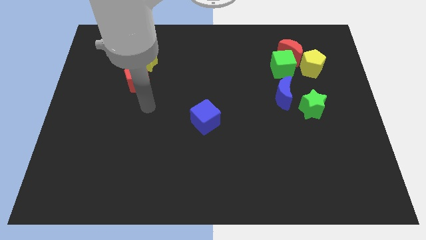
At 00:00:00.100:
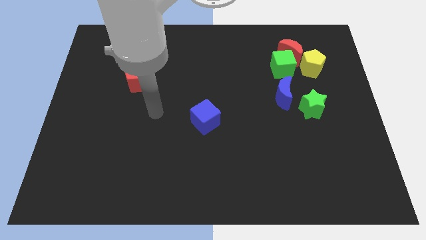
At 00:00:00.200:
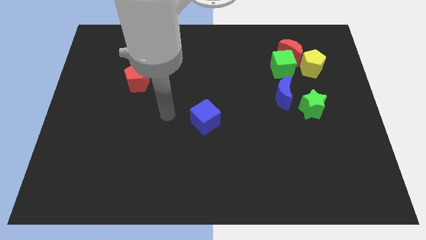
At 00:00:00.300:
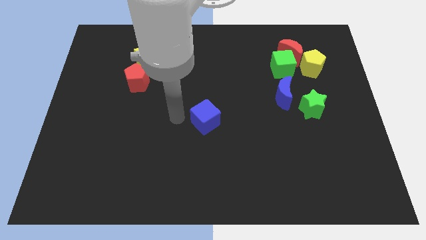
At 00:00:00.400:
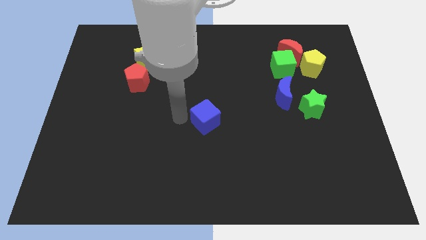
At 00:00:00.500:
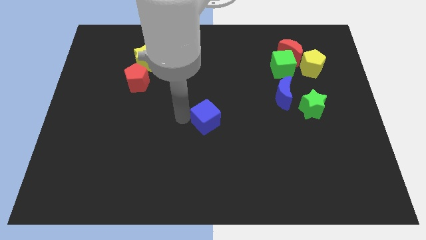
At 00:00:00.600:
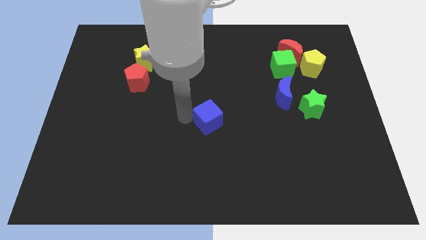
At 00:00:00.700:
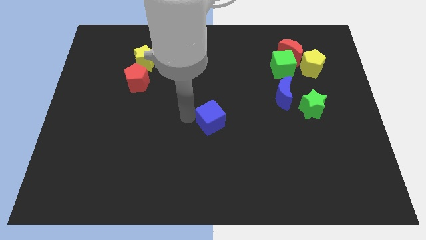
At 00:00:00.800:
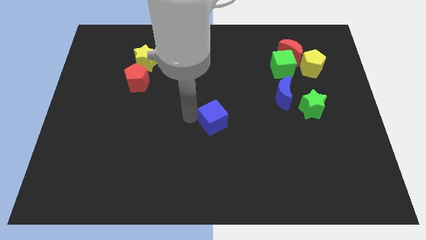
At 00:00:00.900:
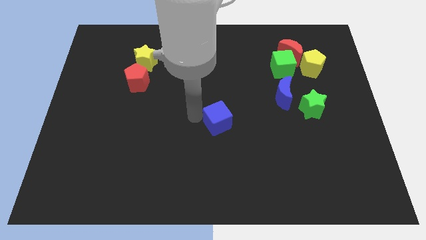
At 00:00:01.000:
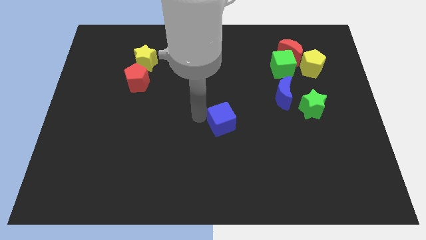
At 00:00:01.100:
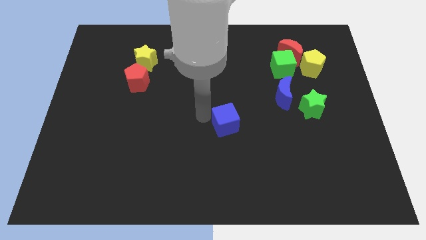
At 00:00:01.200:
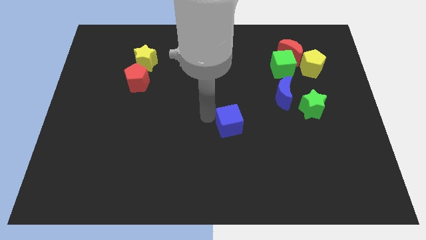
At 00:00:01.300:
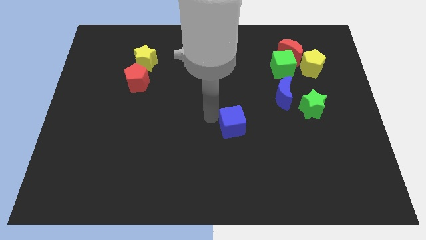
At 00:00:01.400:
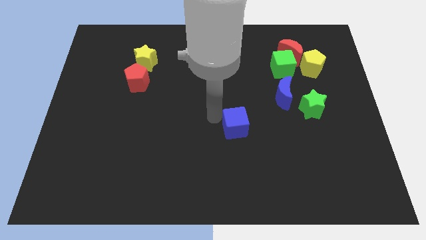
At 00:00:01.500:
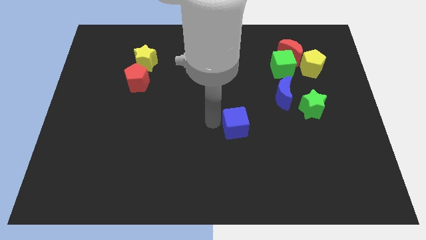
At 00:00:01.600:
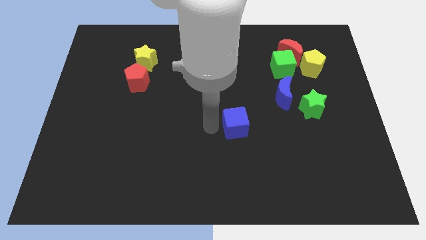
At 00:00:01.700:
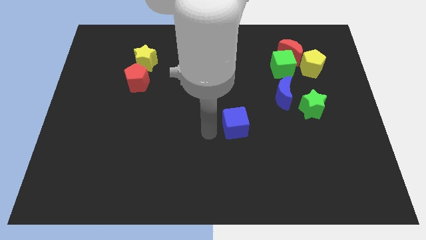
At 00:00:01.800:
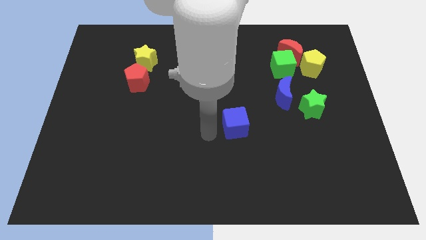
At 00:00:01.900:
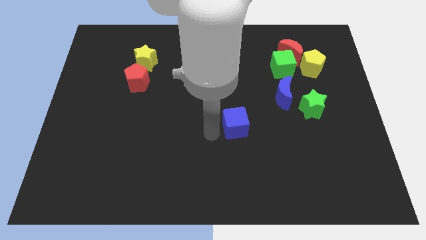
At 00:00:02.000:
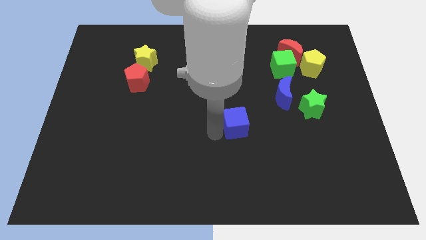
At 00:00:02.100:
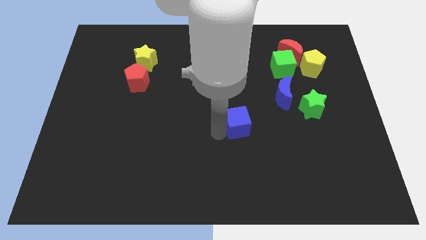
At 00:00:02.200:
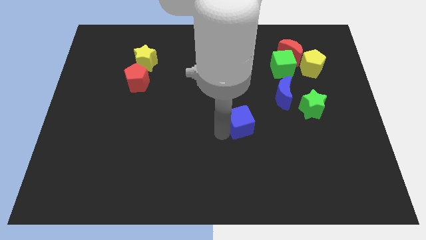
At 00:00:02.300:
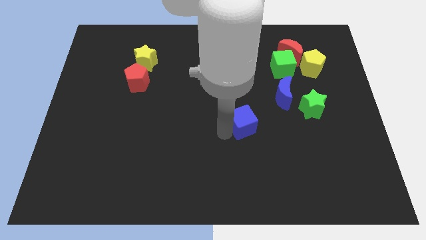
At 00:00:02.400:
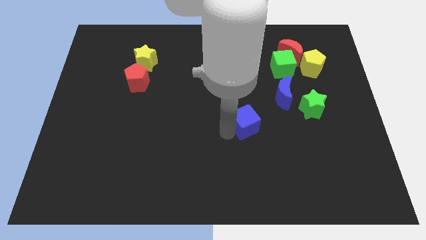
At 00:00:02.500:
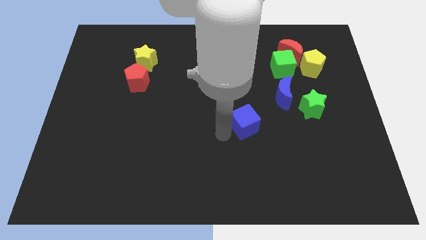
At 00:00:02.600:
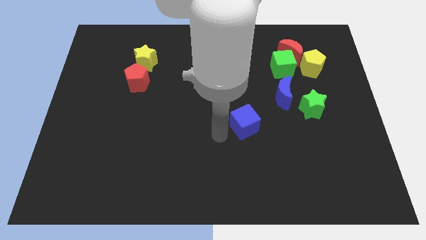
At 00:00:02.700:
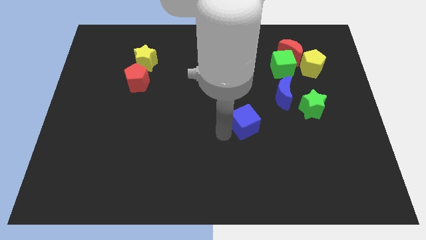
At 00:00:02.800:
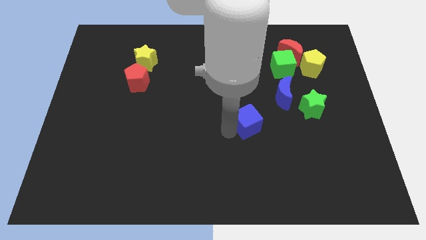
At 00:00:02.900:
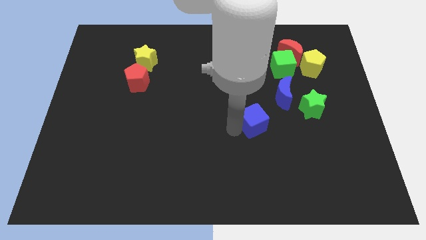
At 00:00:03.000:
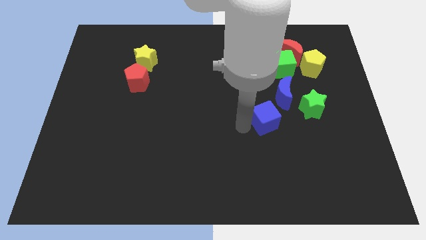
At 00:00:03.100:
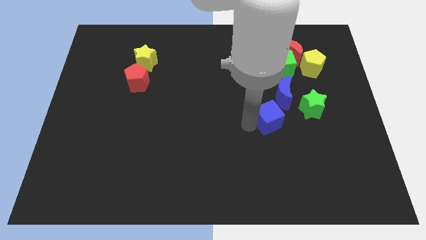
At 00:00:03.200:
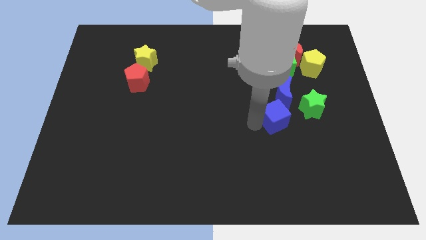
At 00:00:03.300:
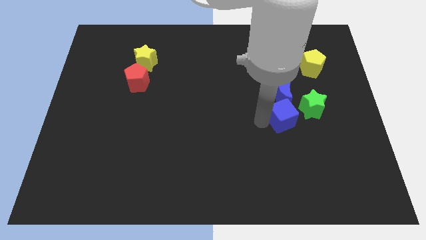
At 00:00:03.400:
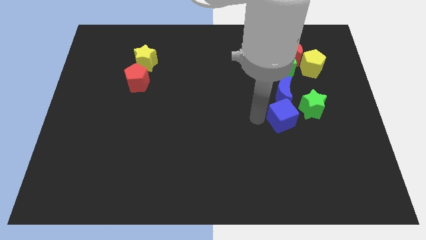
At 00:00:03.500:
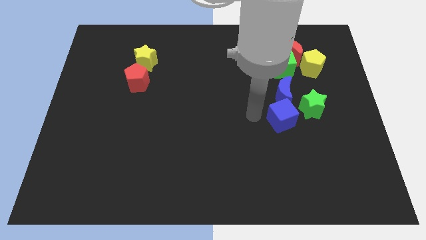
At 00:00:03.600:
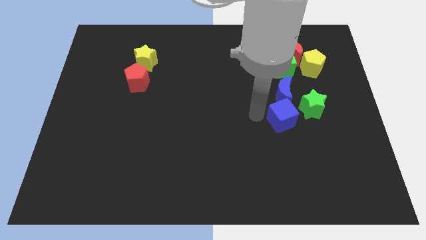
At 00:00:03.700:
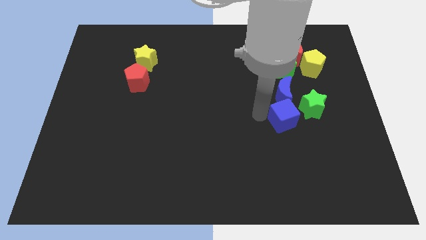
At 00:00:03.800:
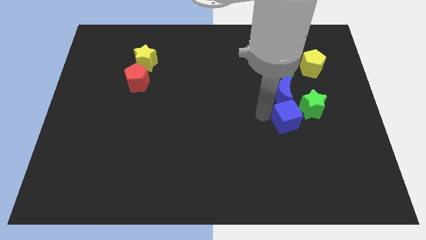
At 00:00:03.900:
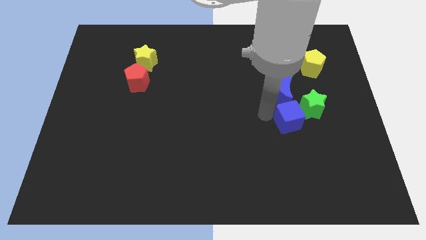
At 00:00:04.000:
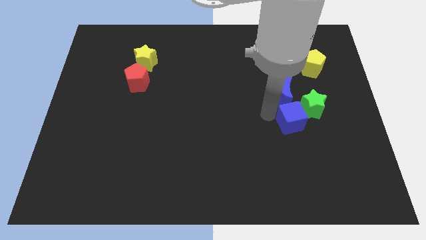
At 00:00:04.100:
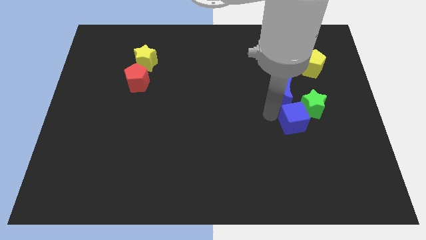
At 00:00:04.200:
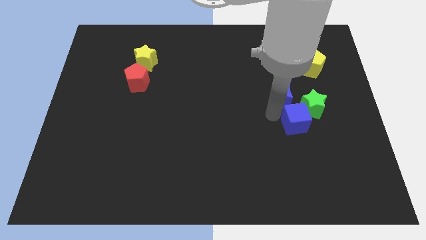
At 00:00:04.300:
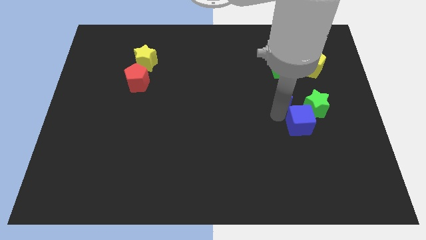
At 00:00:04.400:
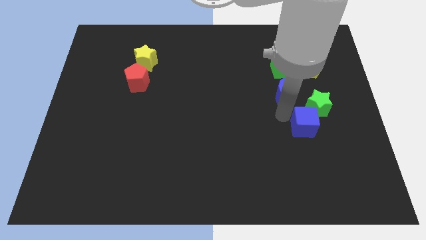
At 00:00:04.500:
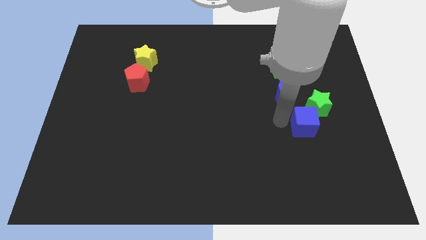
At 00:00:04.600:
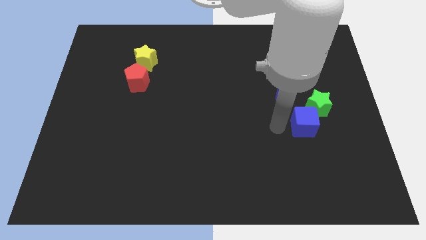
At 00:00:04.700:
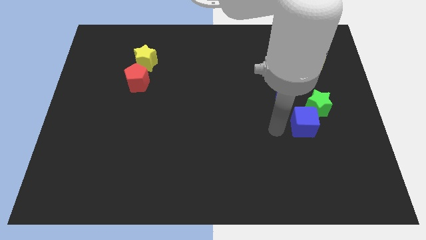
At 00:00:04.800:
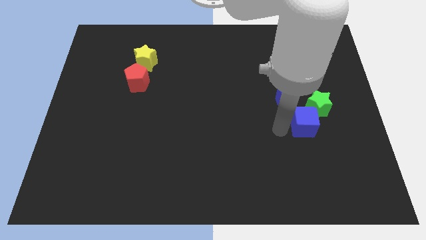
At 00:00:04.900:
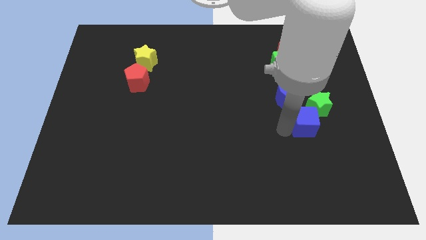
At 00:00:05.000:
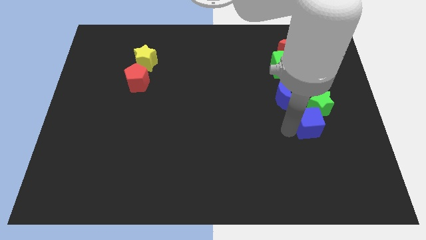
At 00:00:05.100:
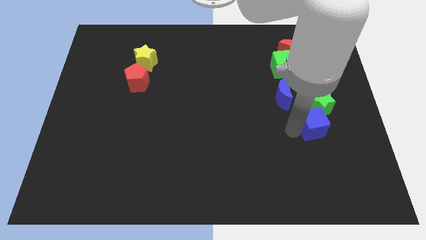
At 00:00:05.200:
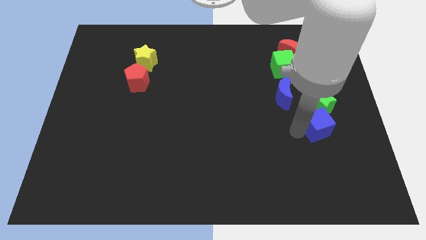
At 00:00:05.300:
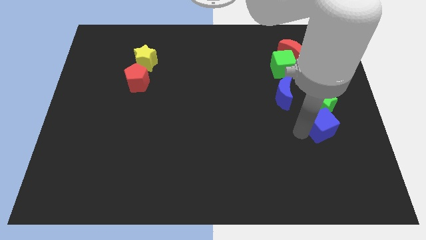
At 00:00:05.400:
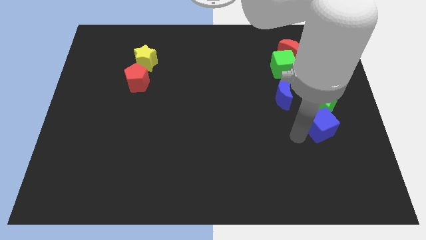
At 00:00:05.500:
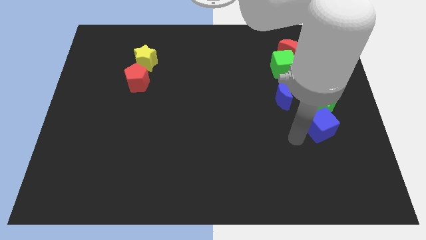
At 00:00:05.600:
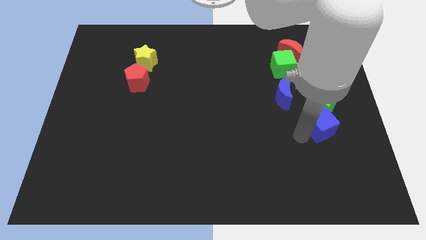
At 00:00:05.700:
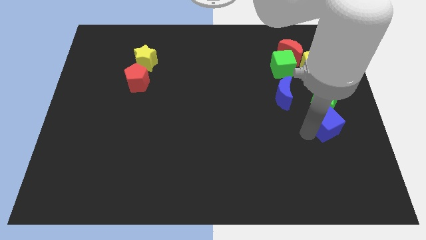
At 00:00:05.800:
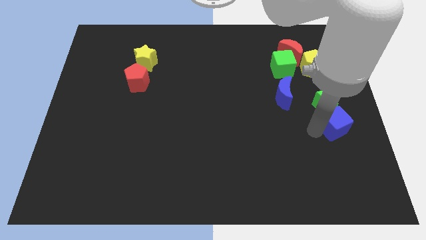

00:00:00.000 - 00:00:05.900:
slide the blue cube to the right side of the board
